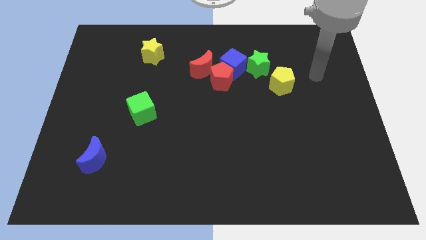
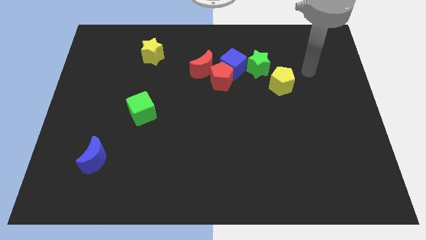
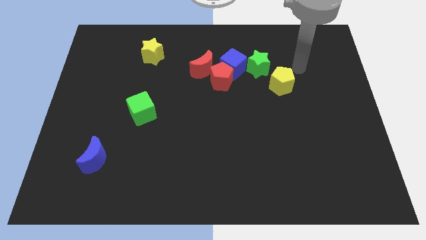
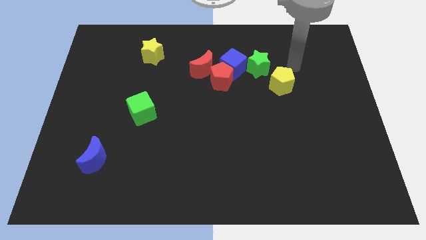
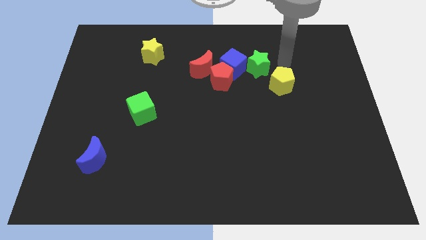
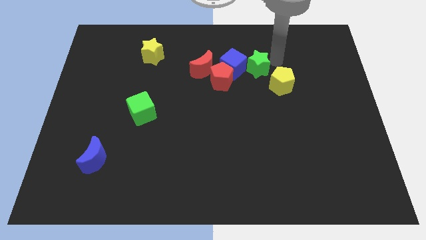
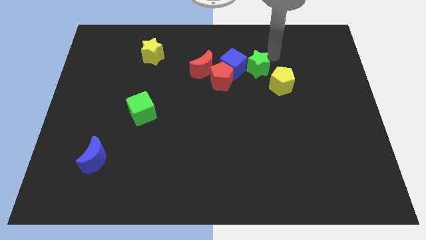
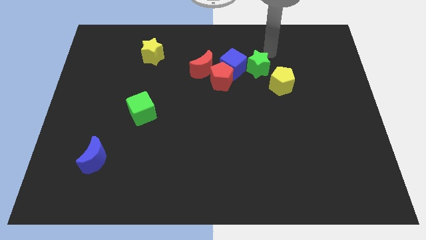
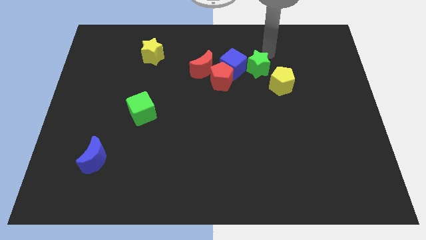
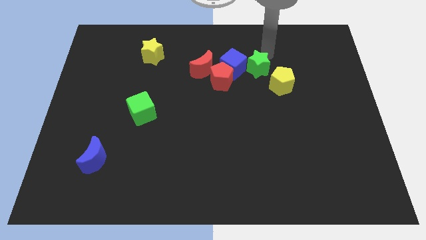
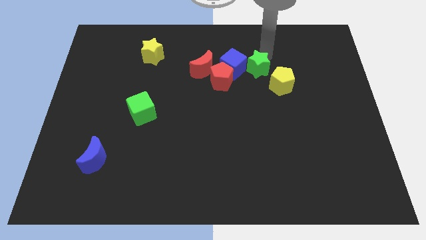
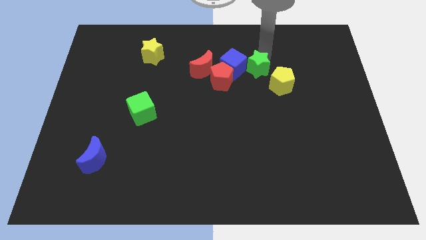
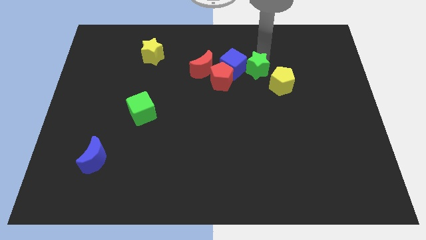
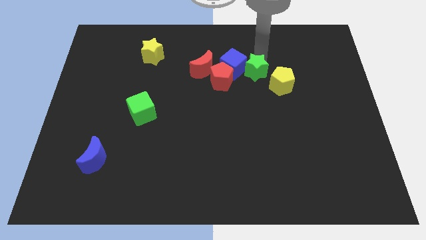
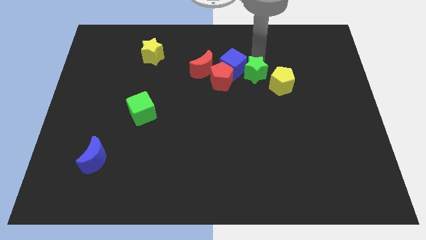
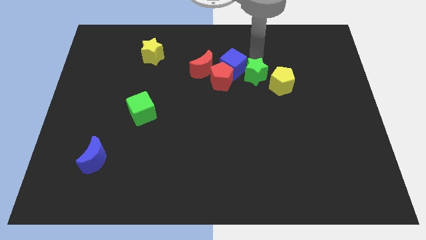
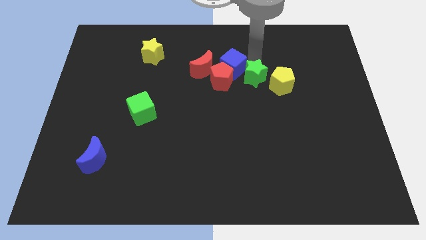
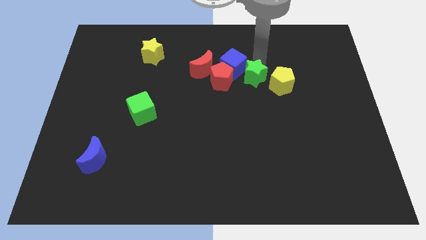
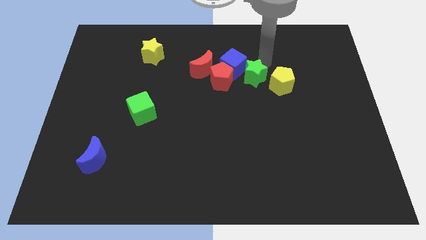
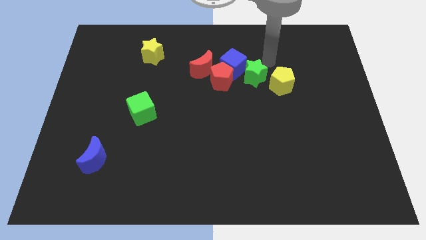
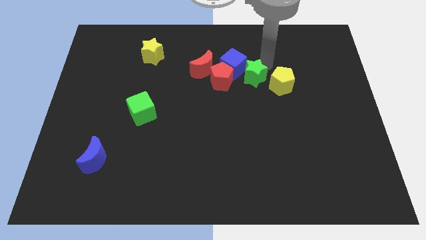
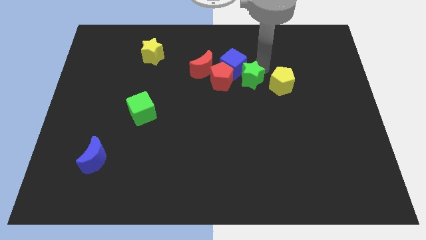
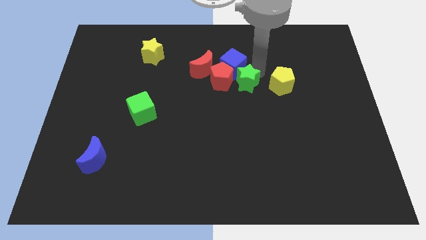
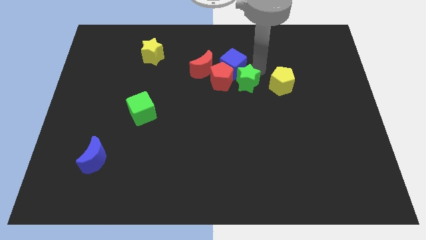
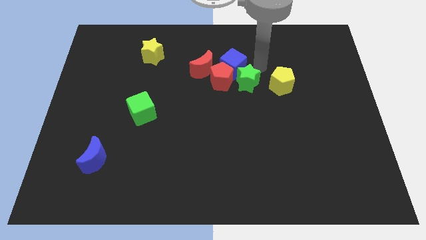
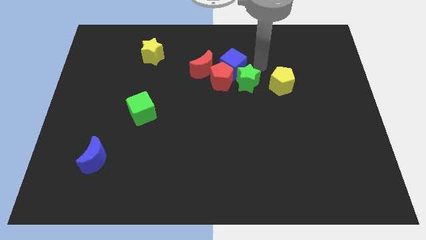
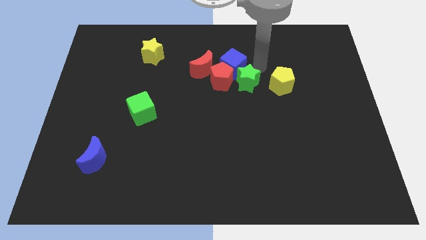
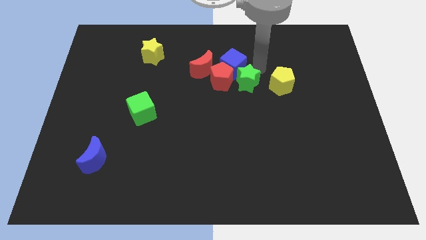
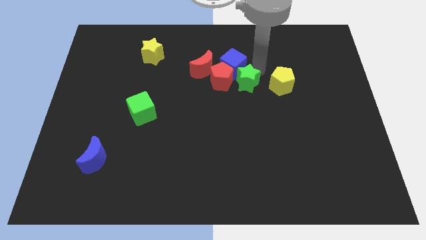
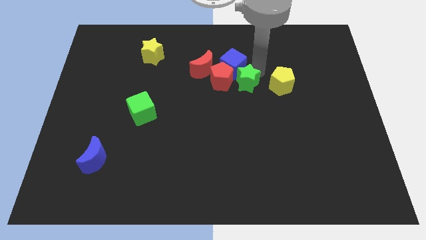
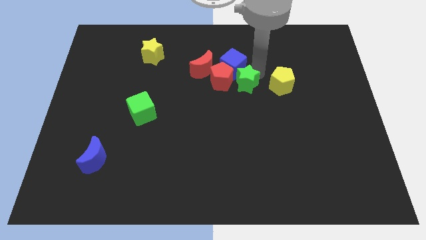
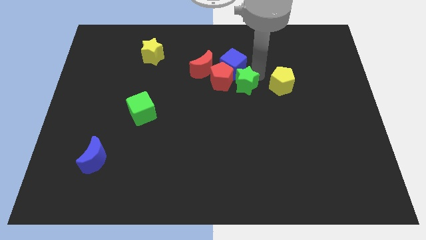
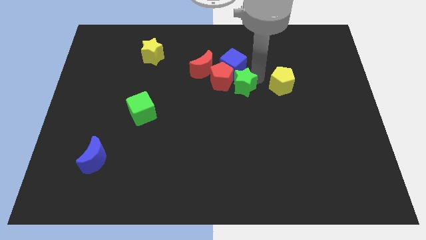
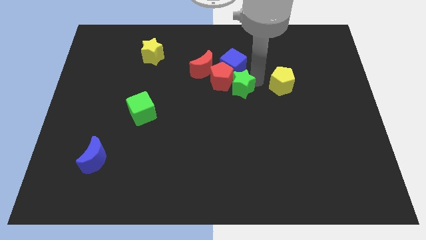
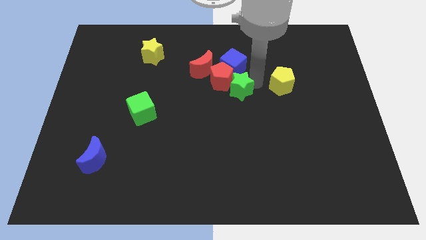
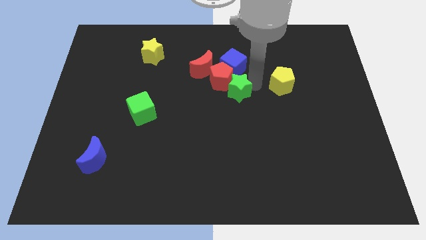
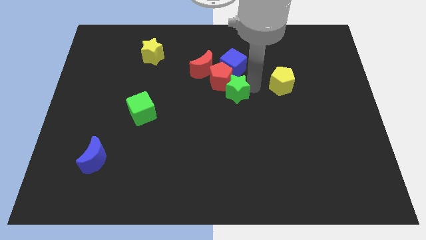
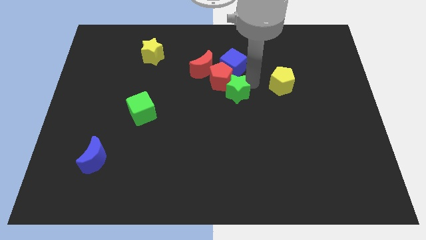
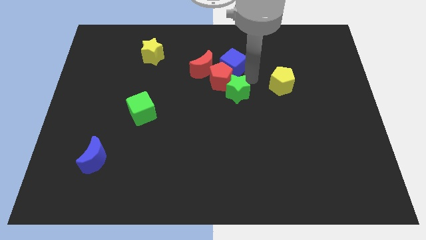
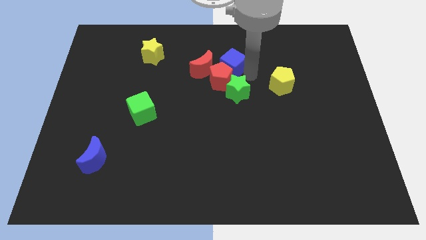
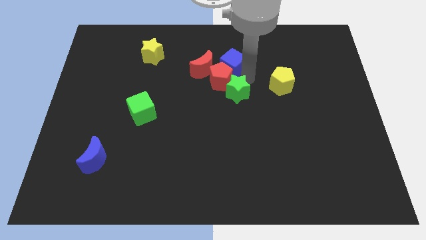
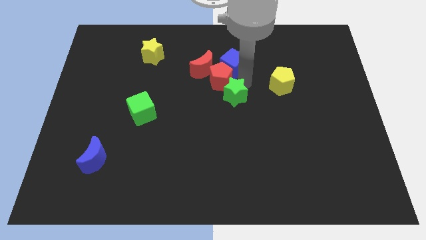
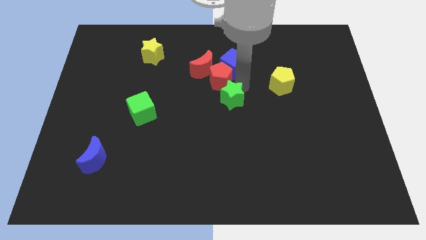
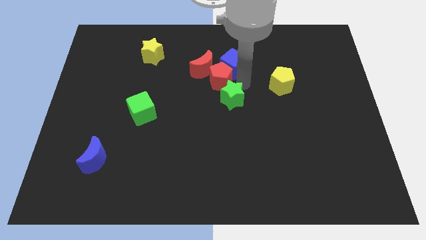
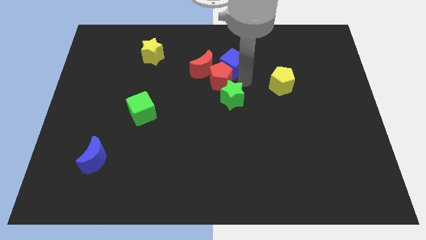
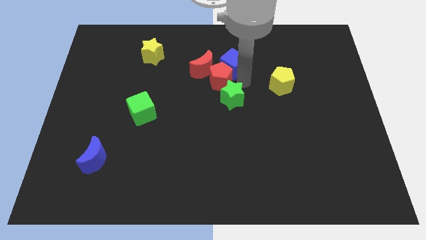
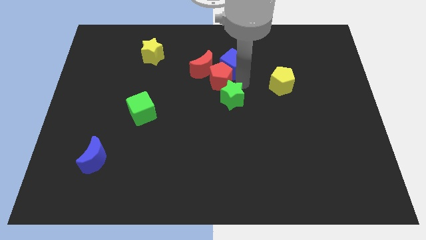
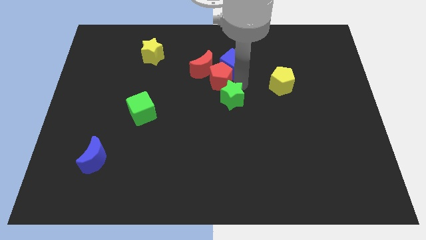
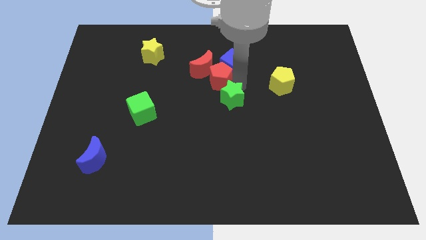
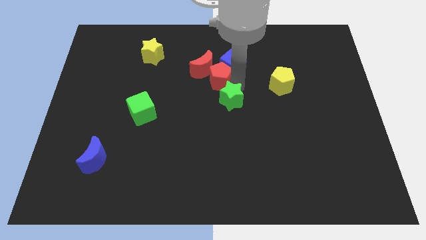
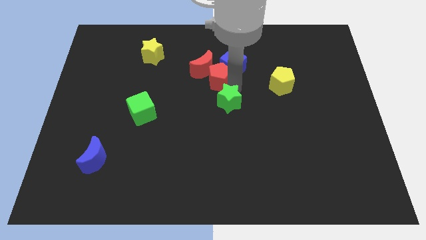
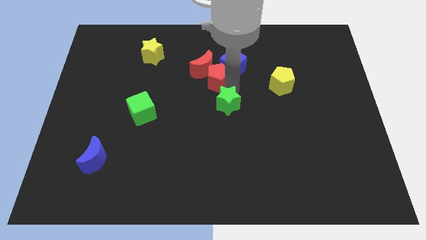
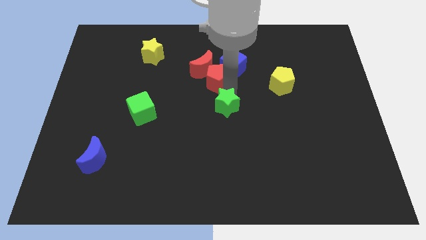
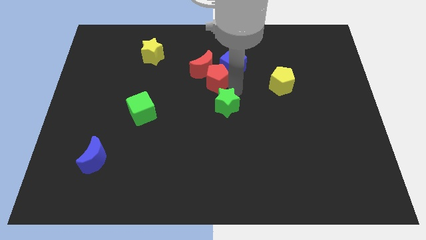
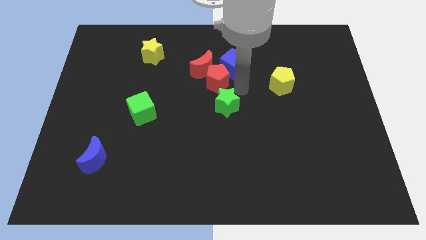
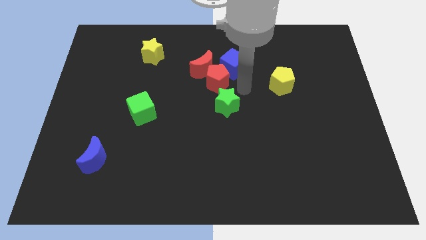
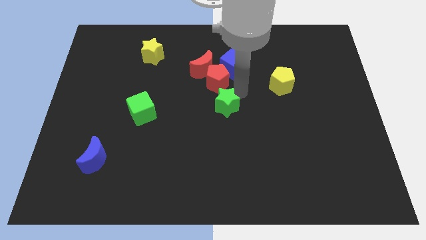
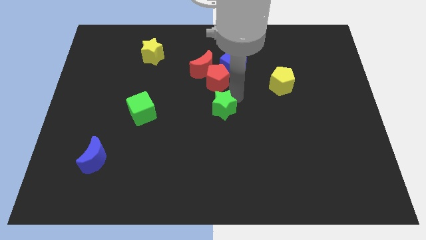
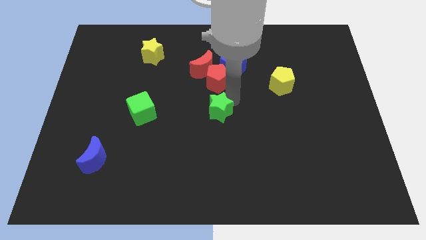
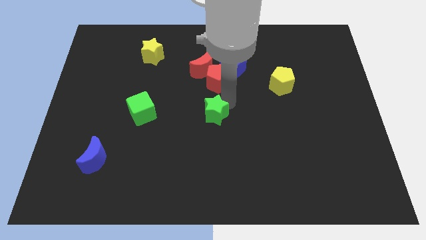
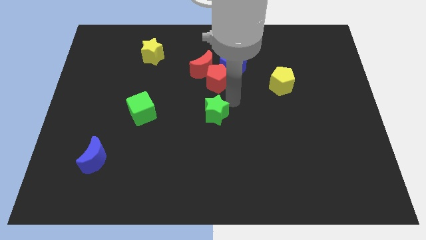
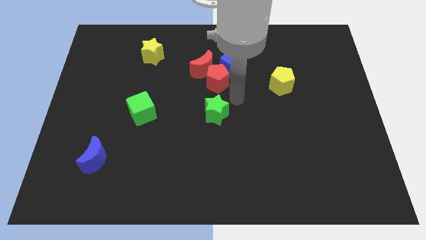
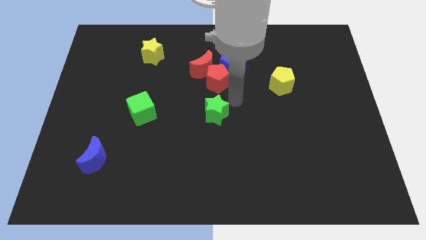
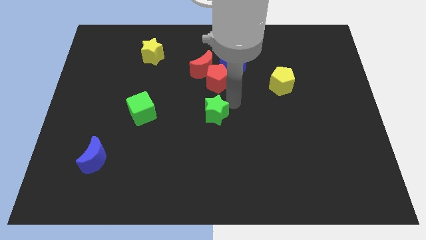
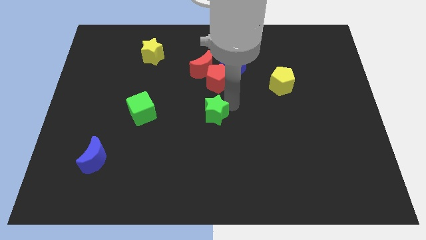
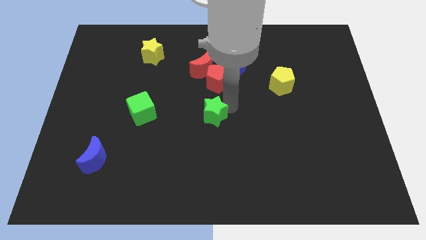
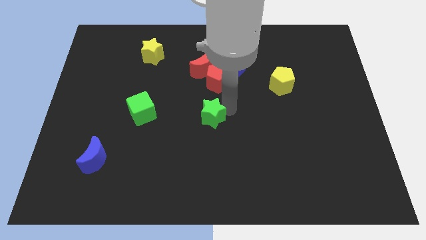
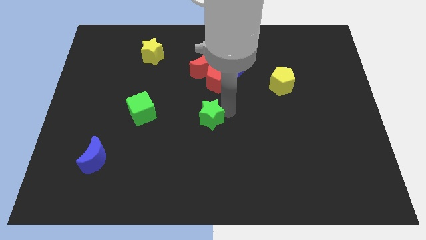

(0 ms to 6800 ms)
move the green star downwards and then left

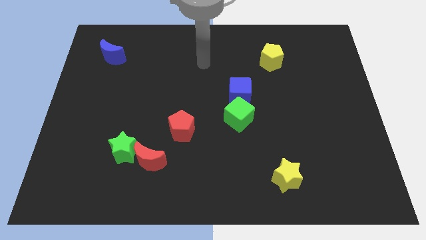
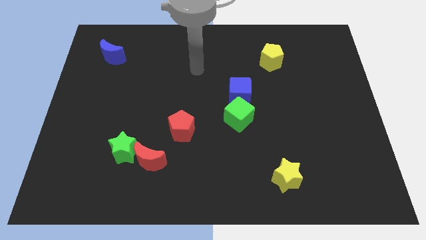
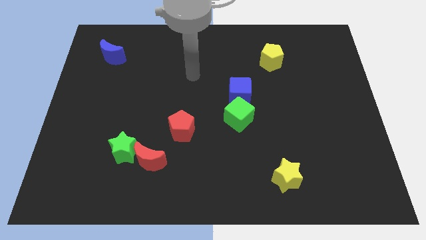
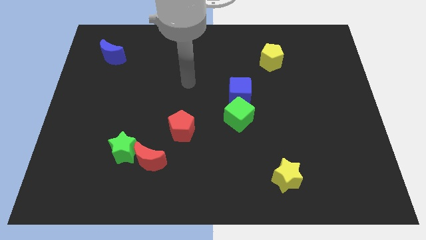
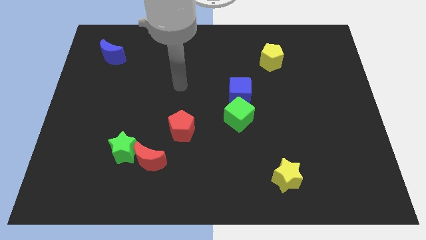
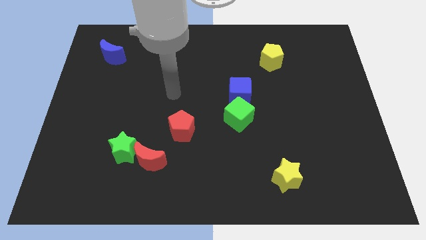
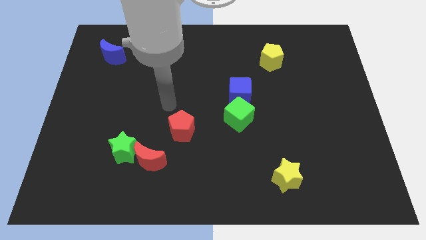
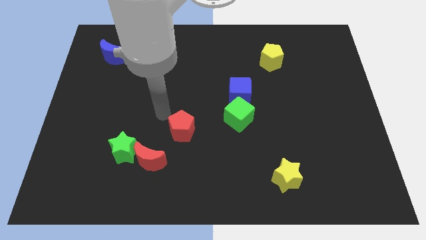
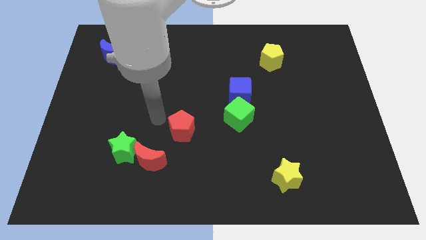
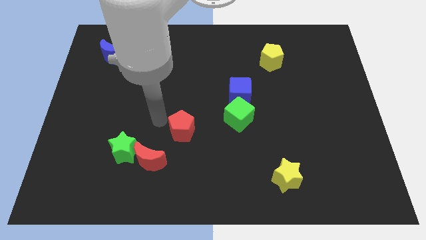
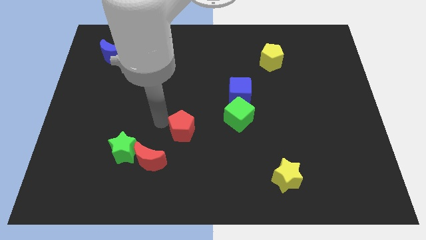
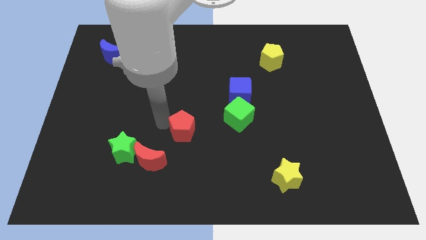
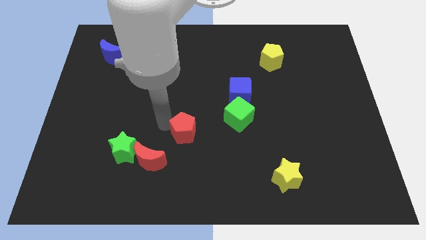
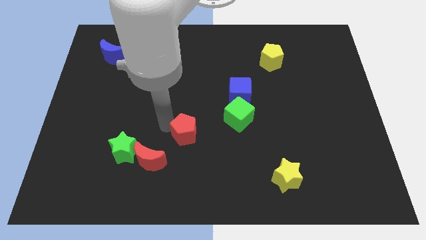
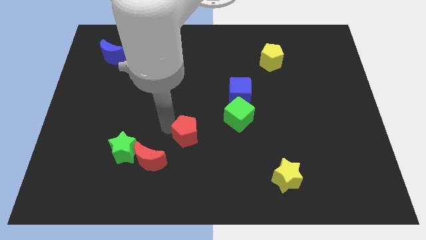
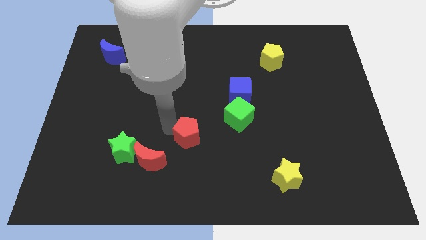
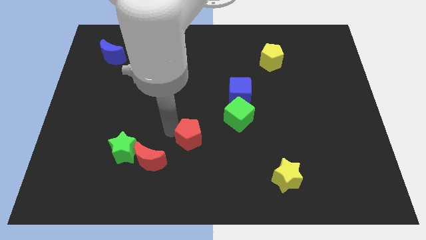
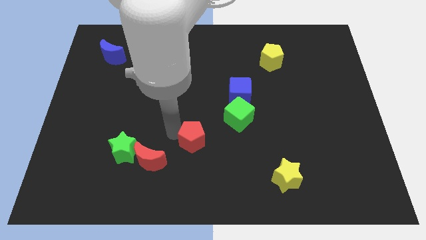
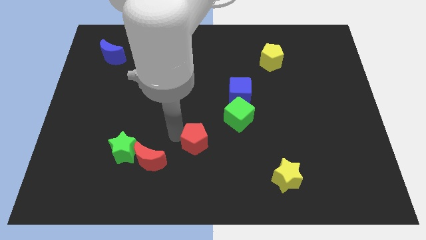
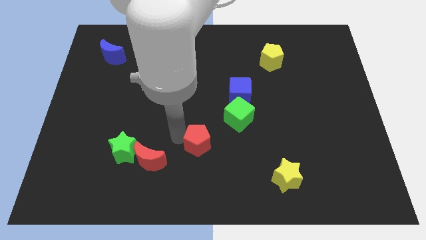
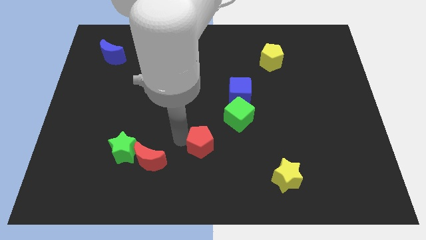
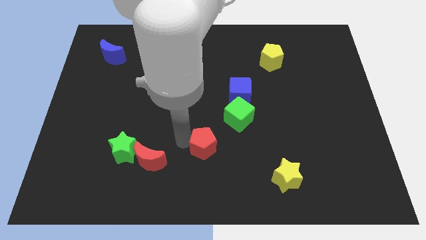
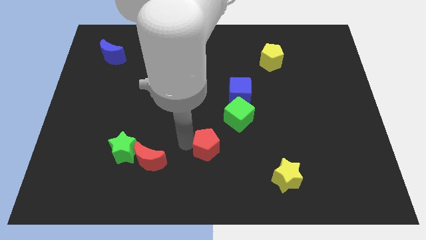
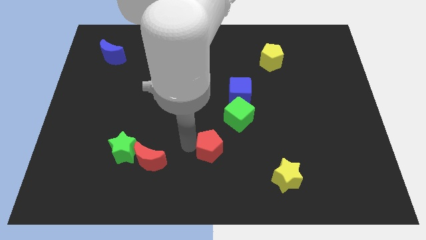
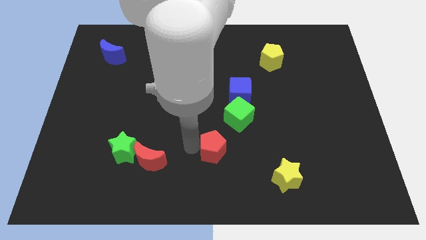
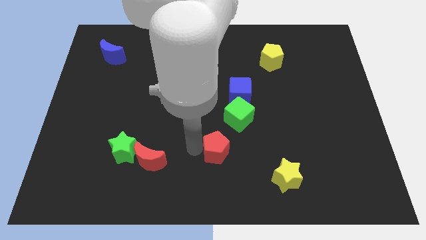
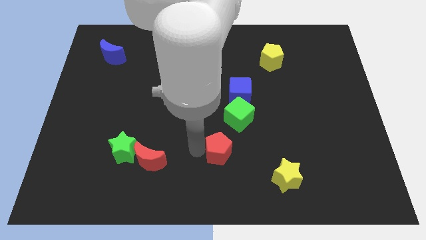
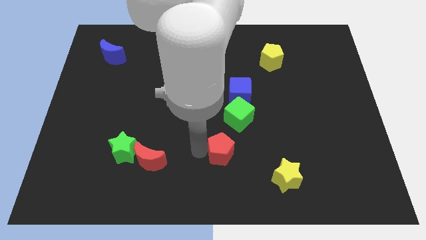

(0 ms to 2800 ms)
push the red pentagon to the right somewhat
